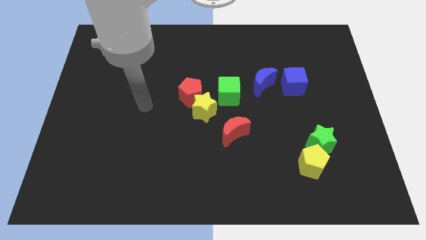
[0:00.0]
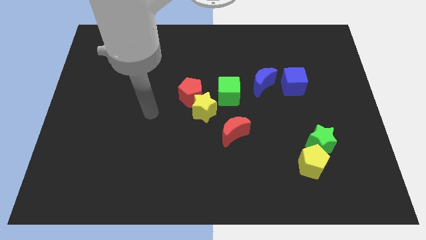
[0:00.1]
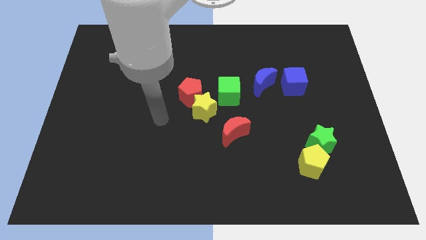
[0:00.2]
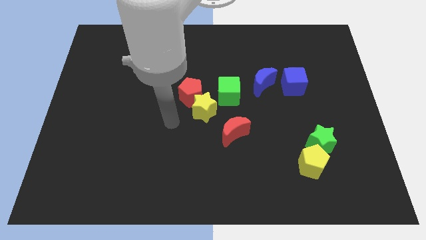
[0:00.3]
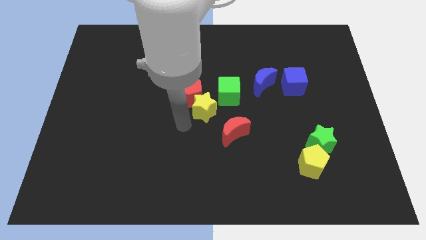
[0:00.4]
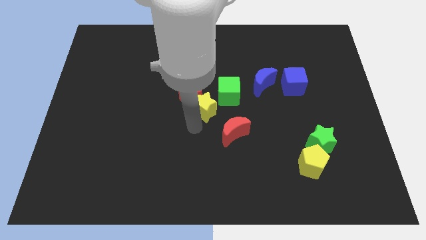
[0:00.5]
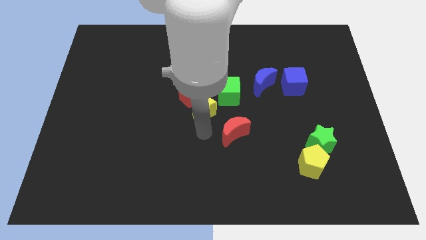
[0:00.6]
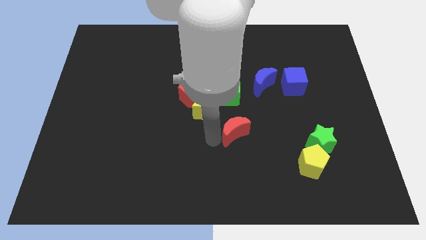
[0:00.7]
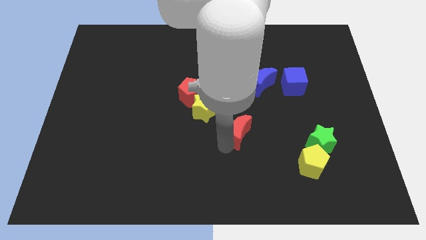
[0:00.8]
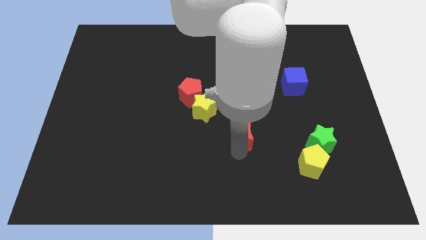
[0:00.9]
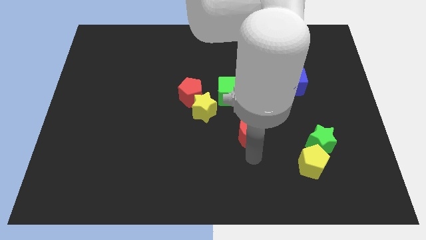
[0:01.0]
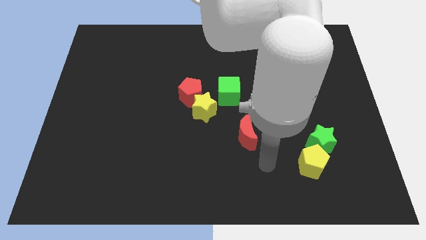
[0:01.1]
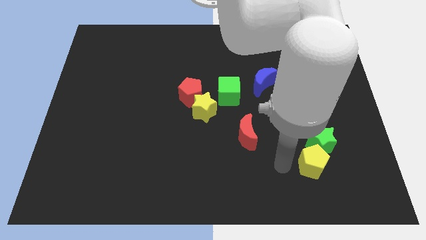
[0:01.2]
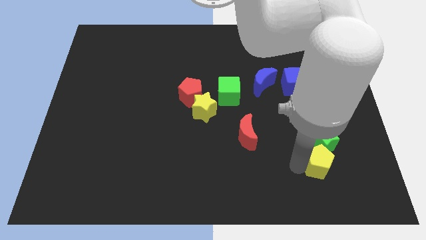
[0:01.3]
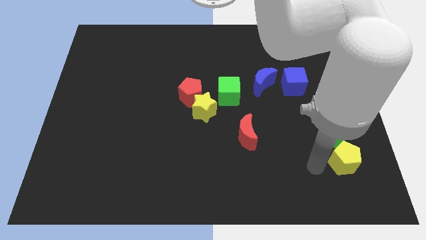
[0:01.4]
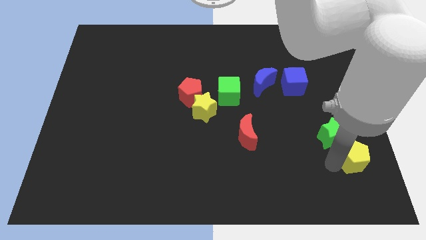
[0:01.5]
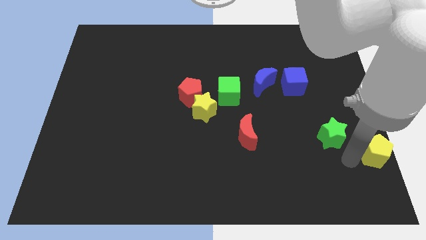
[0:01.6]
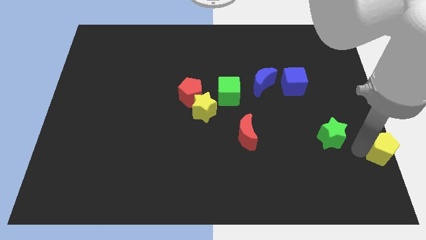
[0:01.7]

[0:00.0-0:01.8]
separate the green star from the yellow pentagon

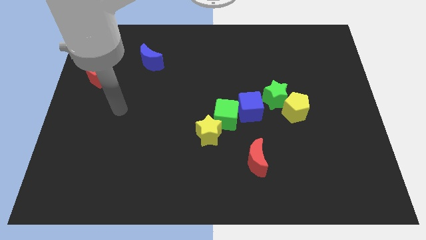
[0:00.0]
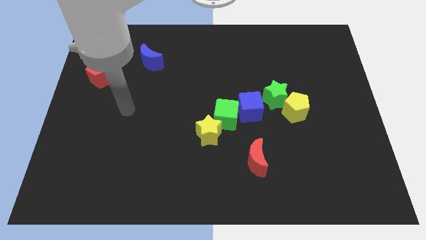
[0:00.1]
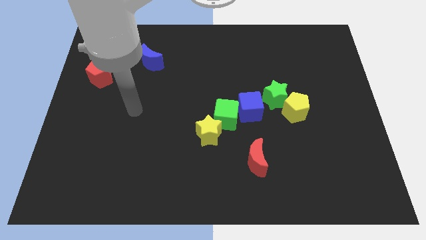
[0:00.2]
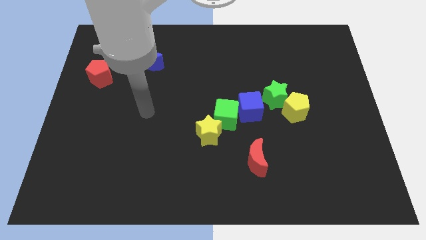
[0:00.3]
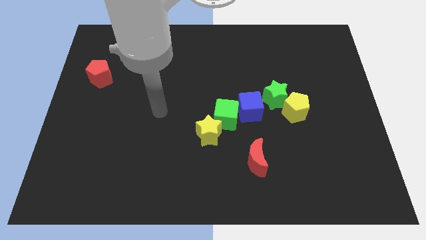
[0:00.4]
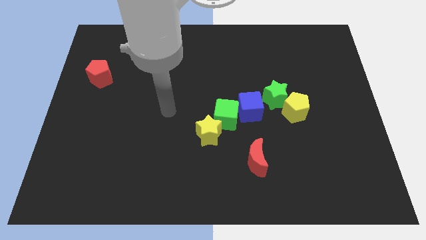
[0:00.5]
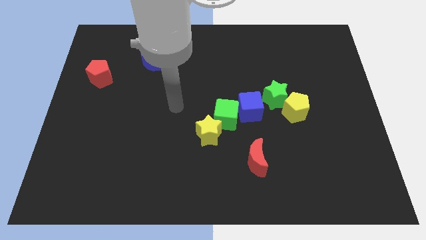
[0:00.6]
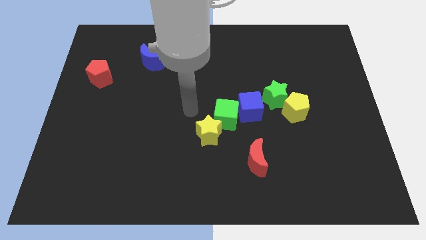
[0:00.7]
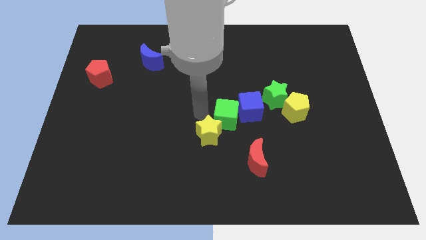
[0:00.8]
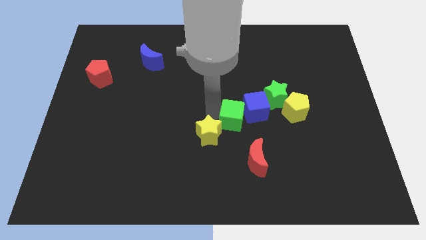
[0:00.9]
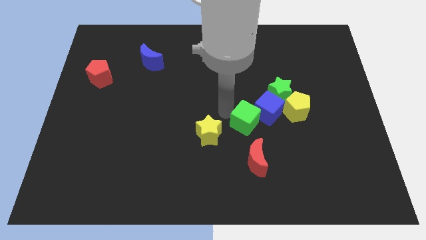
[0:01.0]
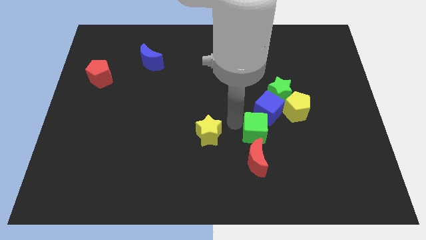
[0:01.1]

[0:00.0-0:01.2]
separate the yellow star from the green cube

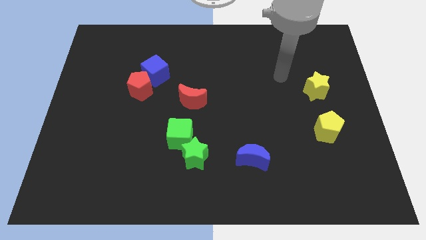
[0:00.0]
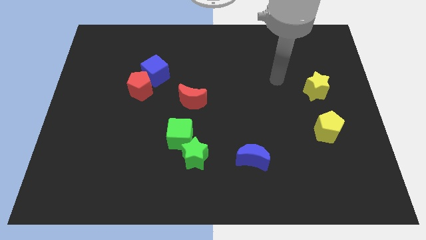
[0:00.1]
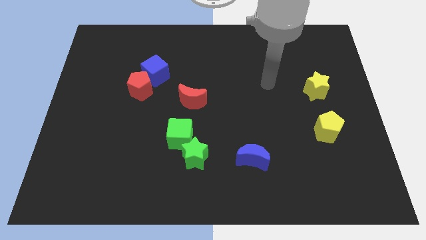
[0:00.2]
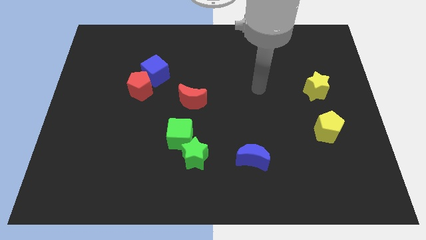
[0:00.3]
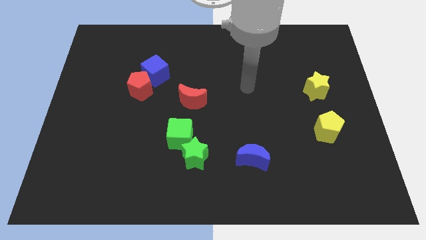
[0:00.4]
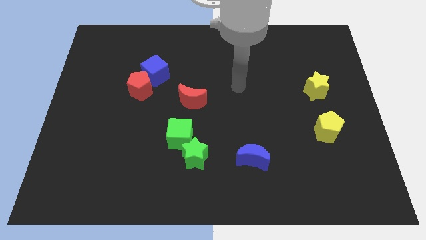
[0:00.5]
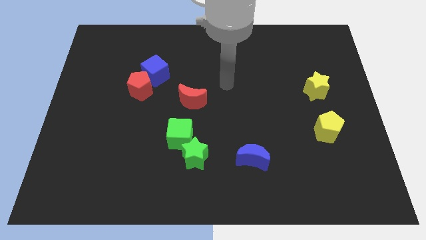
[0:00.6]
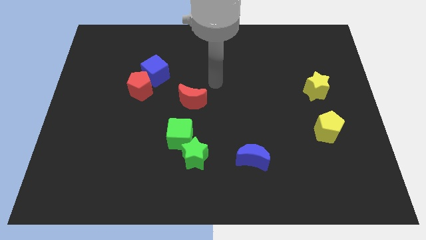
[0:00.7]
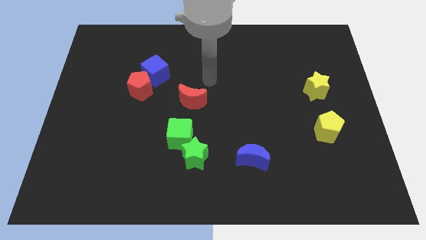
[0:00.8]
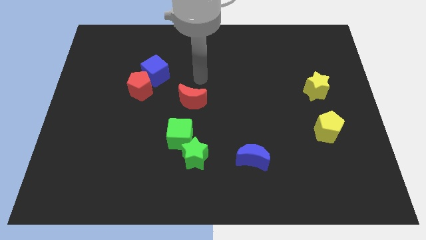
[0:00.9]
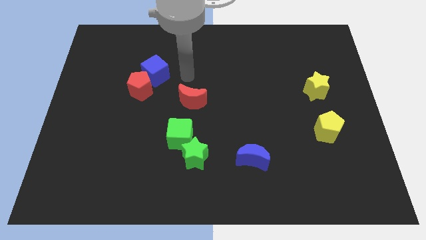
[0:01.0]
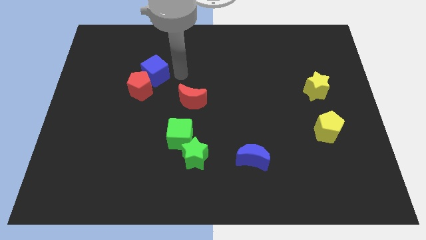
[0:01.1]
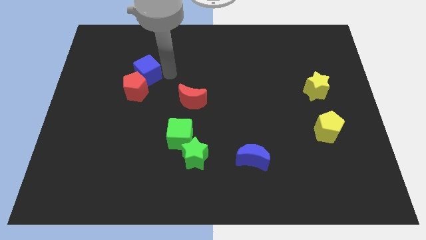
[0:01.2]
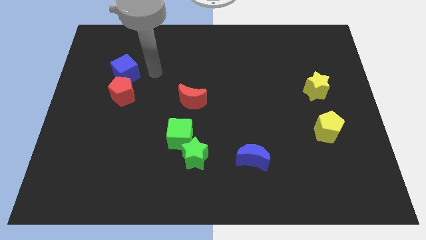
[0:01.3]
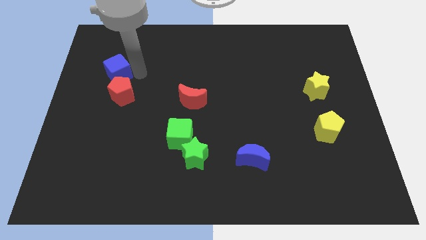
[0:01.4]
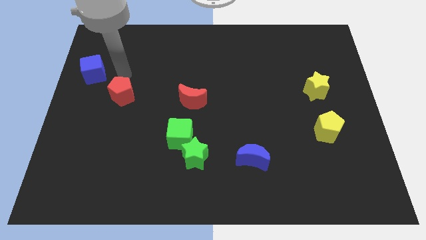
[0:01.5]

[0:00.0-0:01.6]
pull the red pentagon apart from the blue cube

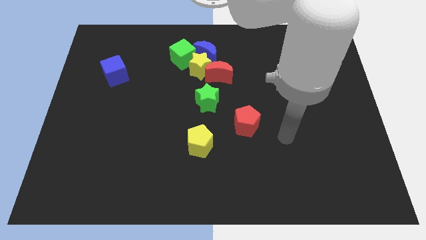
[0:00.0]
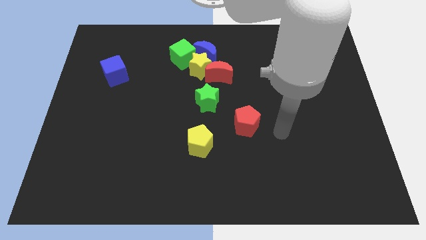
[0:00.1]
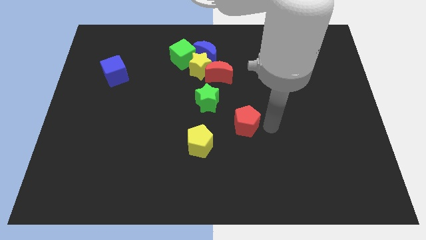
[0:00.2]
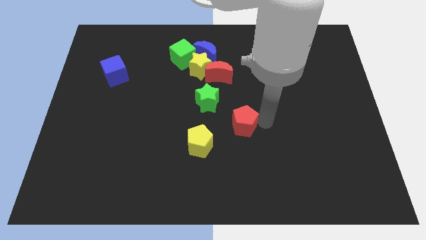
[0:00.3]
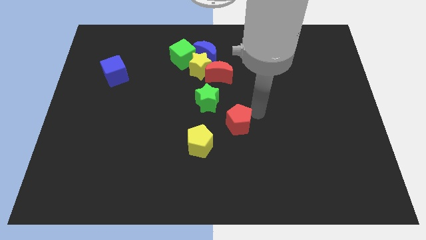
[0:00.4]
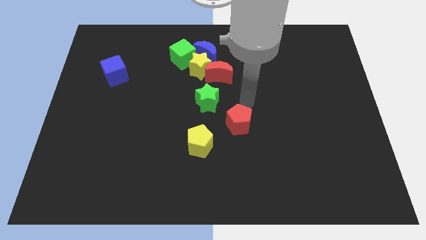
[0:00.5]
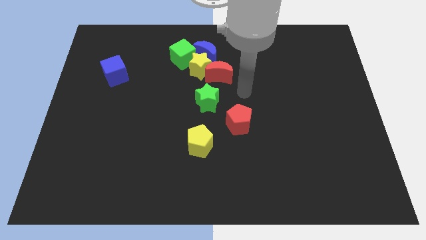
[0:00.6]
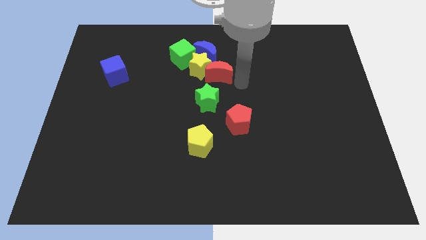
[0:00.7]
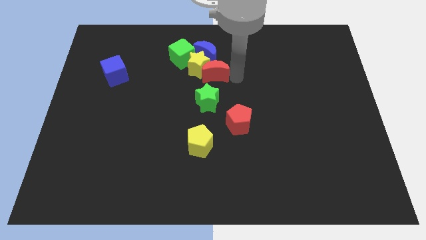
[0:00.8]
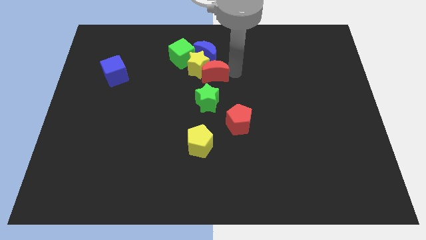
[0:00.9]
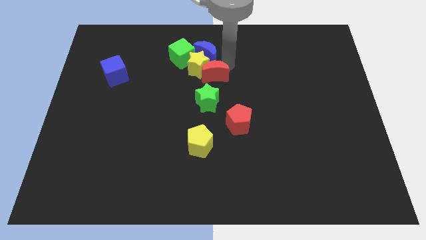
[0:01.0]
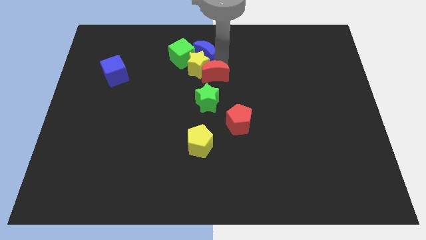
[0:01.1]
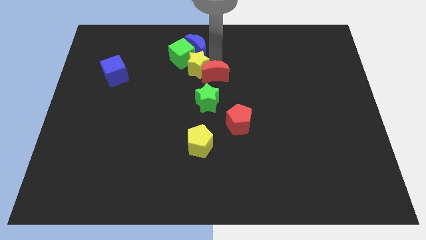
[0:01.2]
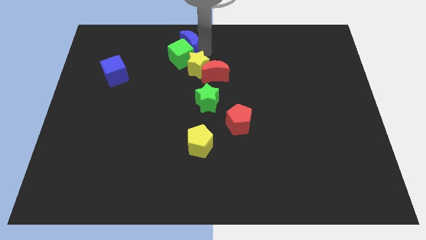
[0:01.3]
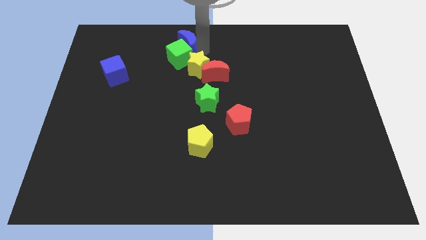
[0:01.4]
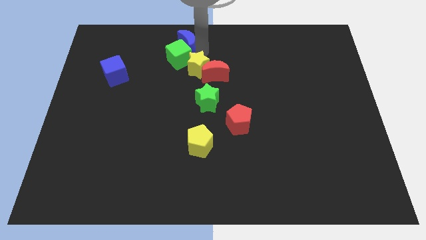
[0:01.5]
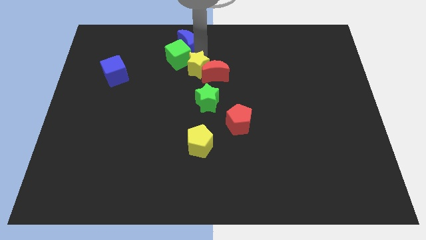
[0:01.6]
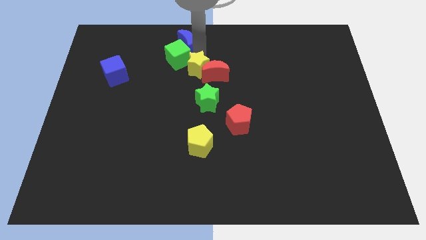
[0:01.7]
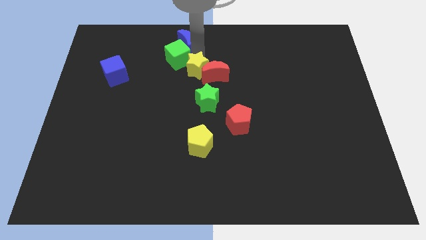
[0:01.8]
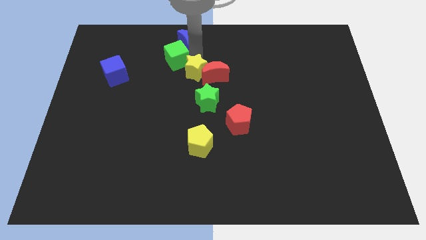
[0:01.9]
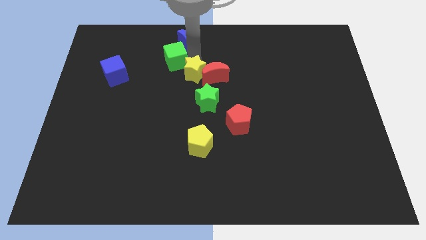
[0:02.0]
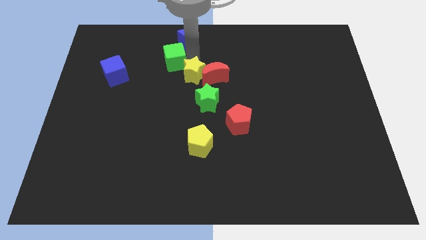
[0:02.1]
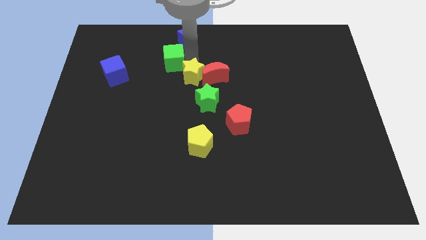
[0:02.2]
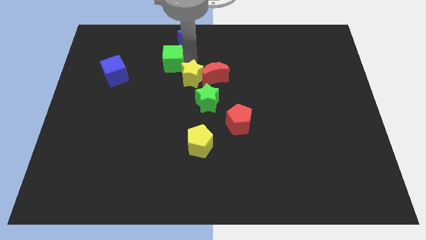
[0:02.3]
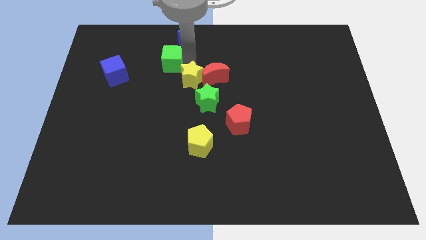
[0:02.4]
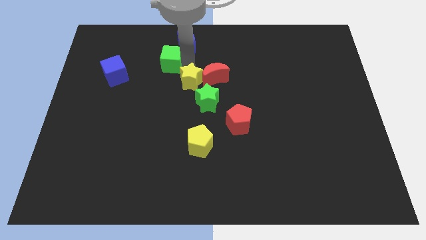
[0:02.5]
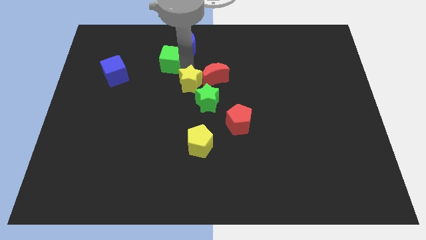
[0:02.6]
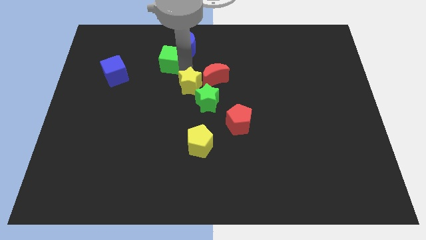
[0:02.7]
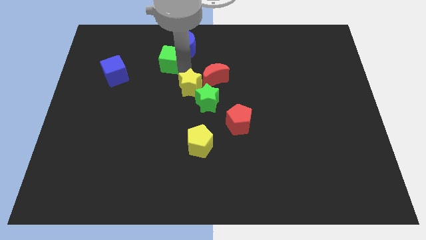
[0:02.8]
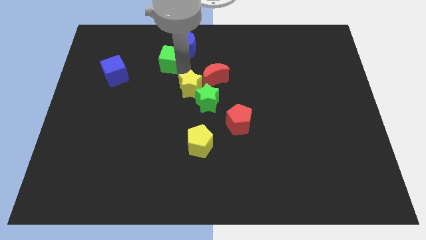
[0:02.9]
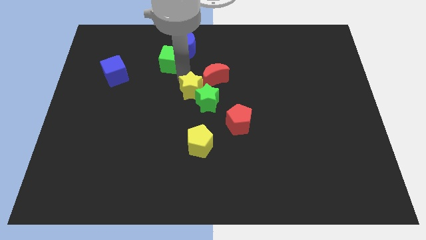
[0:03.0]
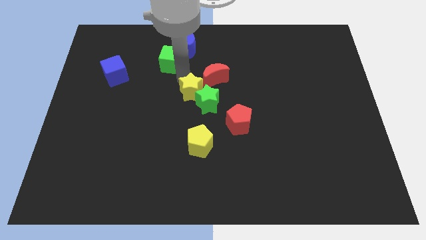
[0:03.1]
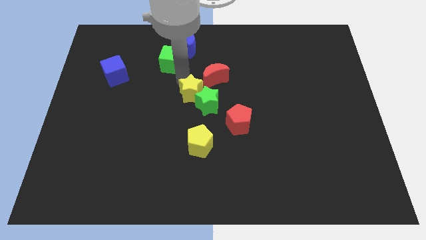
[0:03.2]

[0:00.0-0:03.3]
separate the yellow star from the blue moon, red moon, and green cube

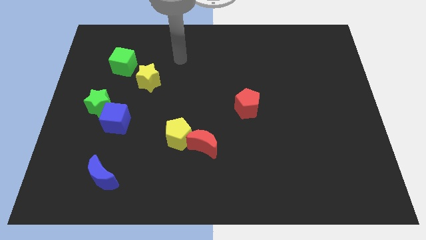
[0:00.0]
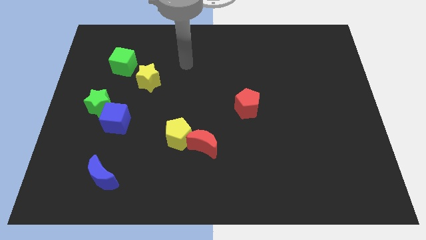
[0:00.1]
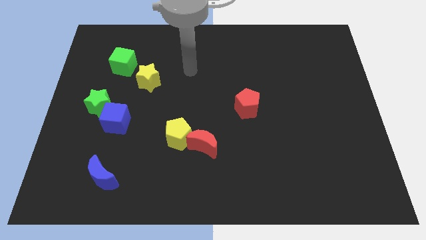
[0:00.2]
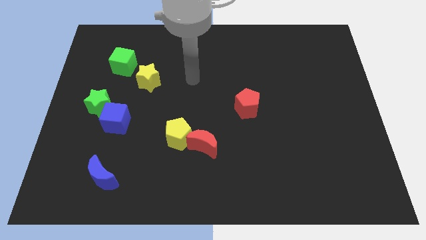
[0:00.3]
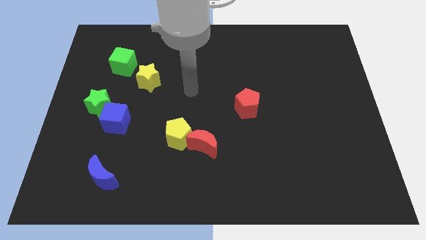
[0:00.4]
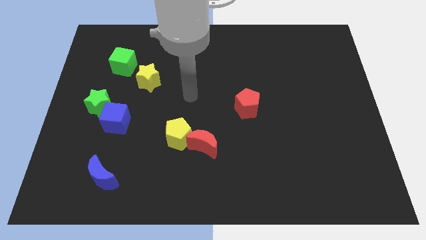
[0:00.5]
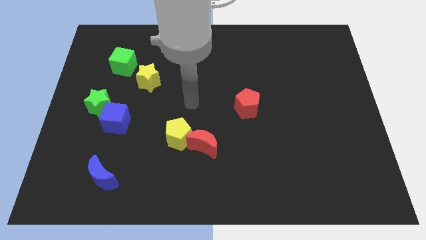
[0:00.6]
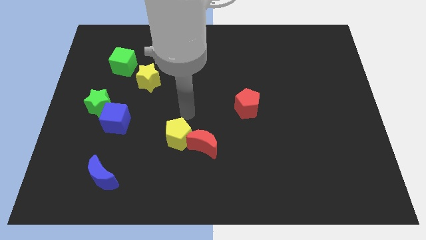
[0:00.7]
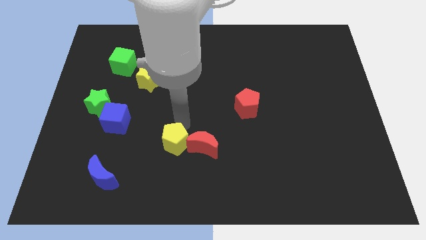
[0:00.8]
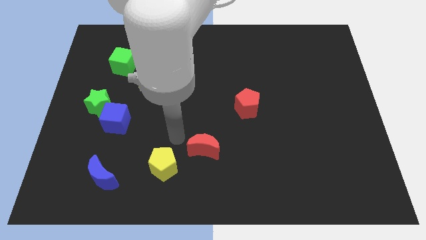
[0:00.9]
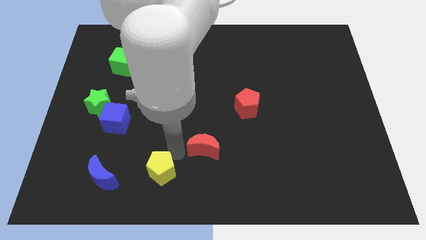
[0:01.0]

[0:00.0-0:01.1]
separate the red moon from the yellow pentagon

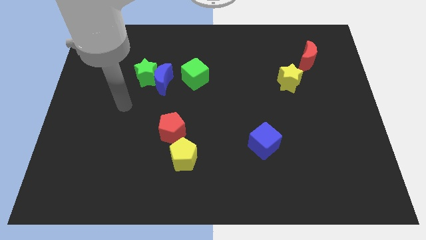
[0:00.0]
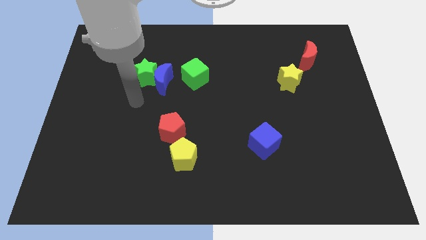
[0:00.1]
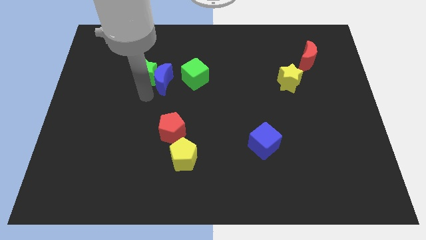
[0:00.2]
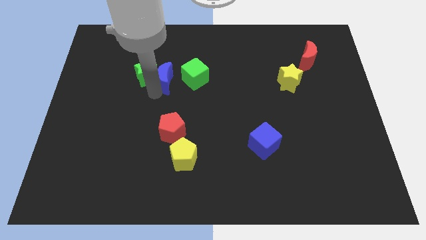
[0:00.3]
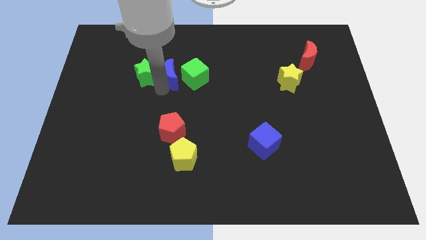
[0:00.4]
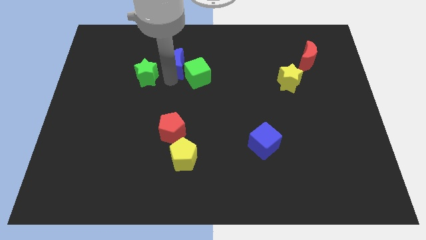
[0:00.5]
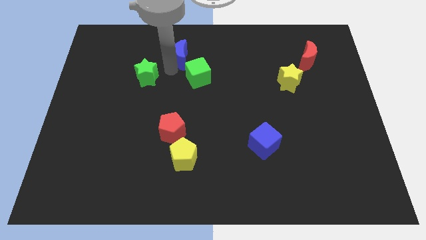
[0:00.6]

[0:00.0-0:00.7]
separate the green star from the blue moon
